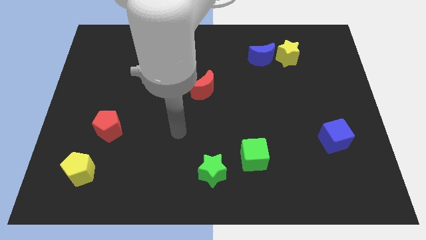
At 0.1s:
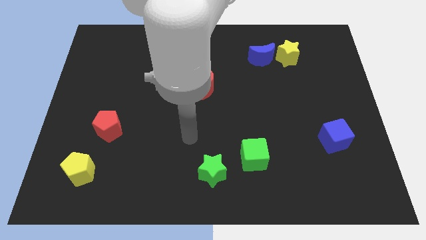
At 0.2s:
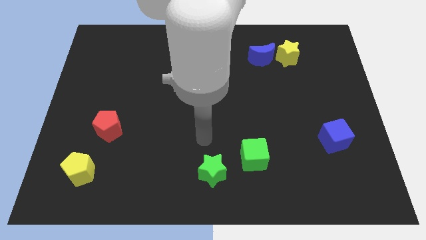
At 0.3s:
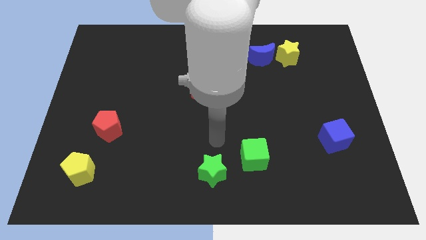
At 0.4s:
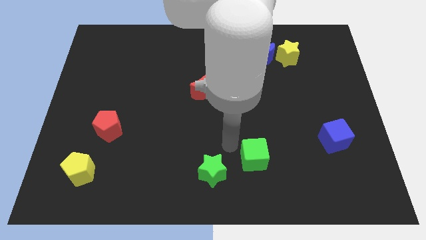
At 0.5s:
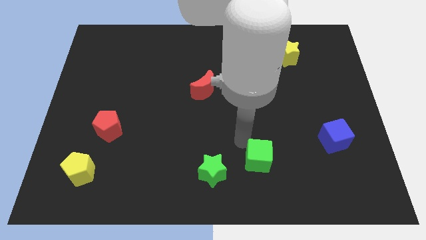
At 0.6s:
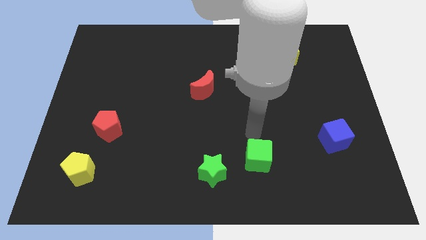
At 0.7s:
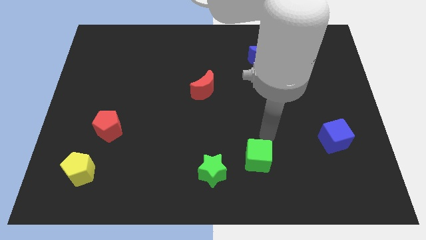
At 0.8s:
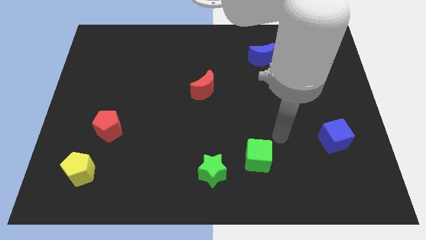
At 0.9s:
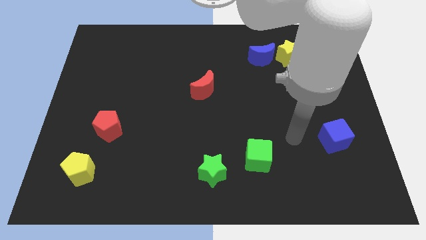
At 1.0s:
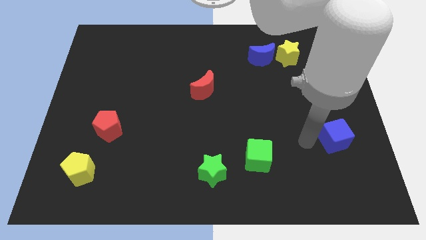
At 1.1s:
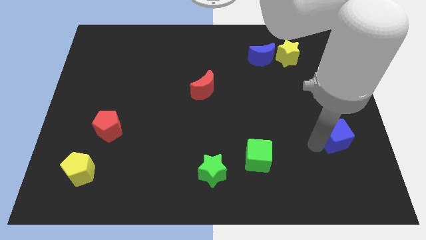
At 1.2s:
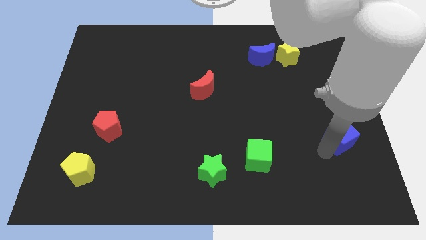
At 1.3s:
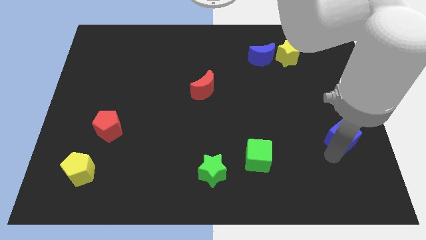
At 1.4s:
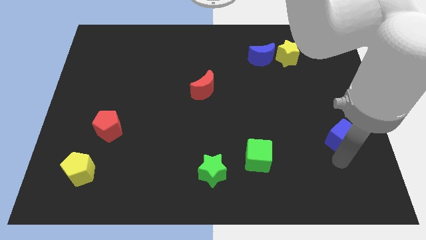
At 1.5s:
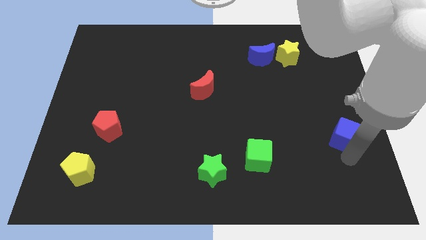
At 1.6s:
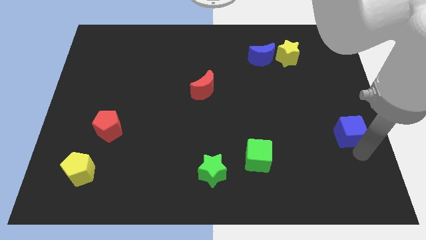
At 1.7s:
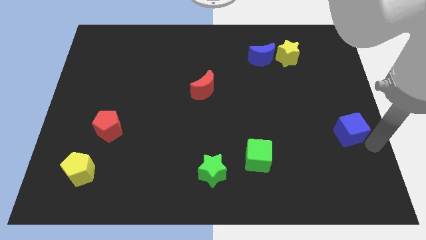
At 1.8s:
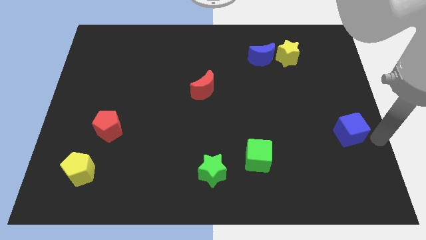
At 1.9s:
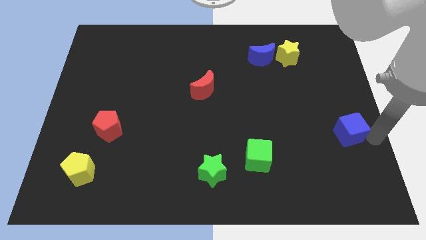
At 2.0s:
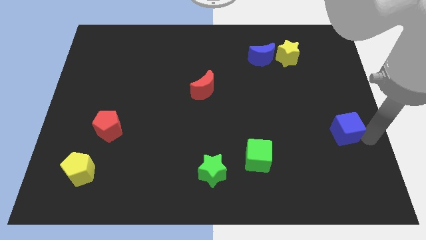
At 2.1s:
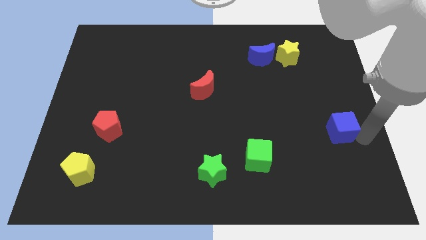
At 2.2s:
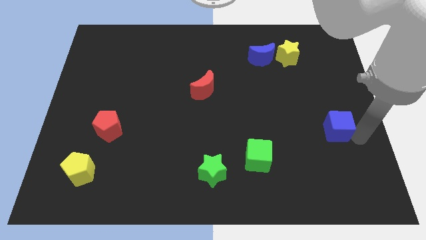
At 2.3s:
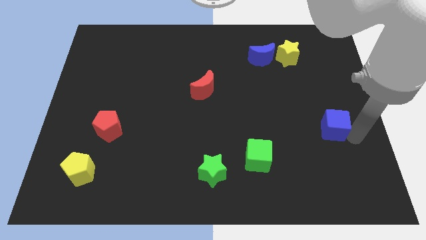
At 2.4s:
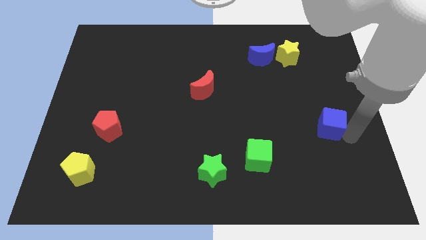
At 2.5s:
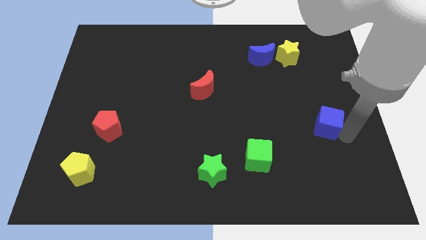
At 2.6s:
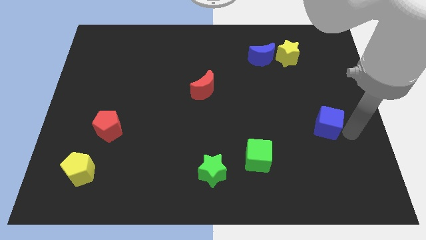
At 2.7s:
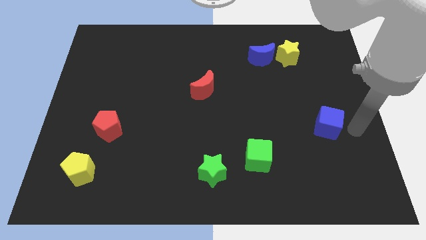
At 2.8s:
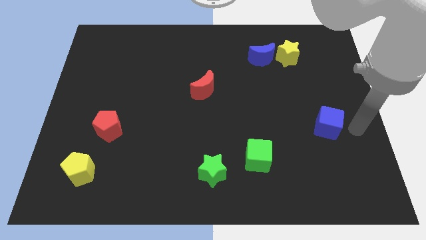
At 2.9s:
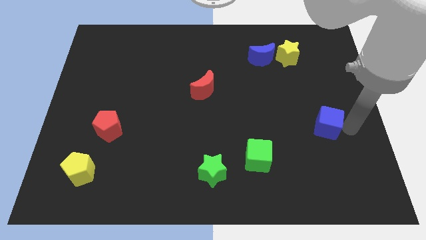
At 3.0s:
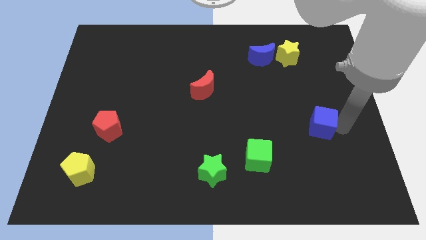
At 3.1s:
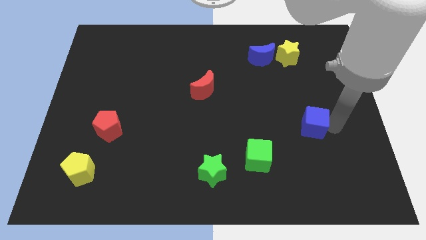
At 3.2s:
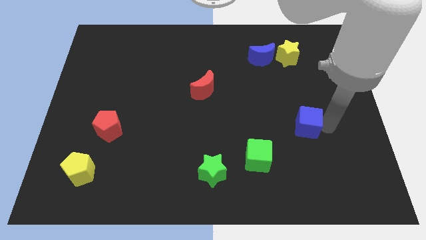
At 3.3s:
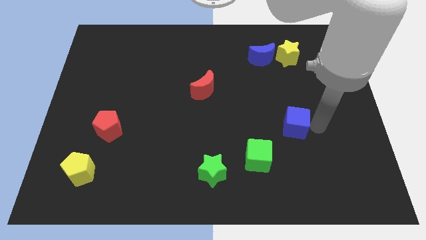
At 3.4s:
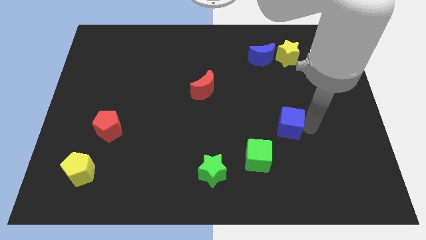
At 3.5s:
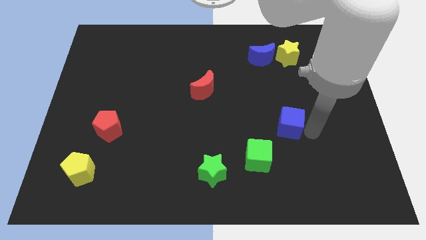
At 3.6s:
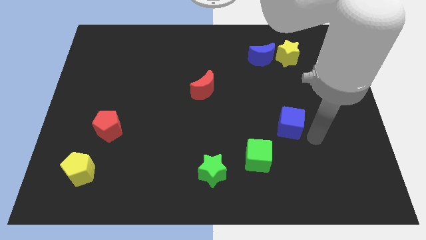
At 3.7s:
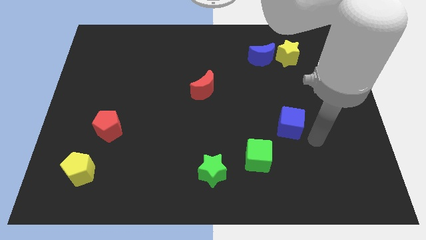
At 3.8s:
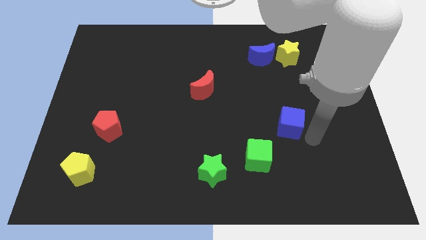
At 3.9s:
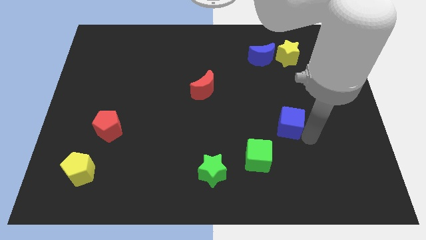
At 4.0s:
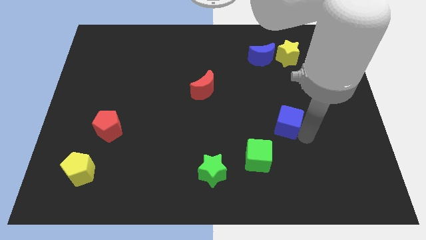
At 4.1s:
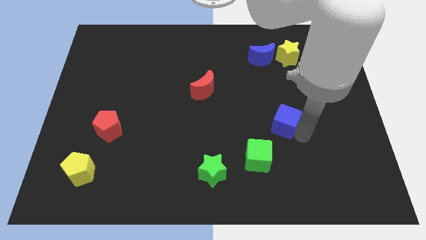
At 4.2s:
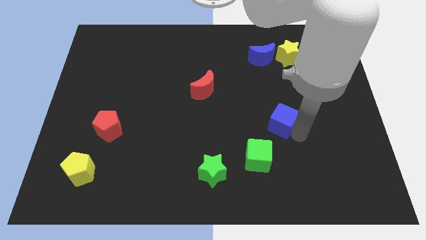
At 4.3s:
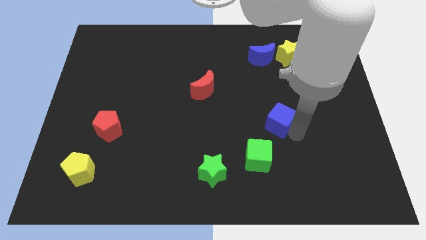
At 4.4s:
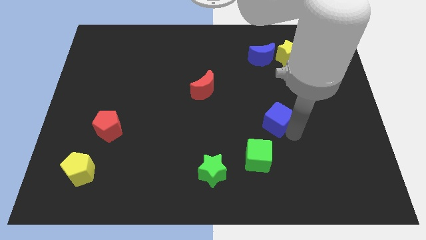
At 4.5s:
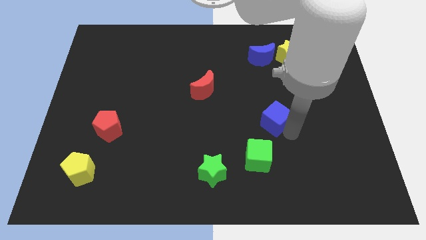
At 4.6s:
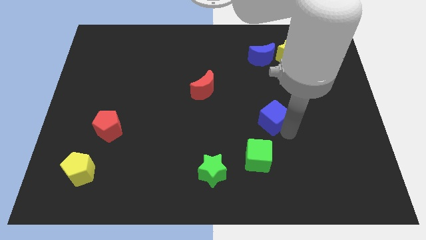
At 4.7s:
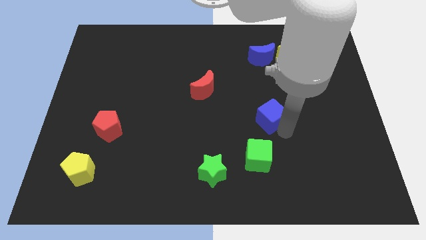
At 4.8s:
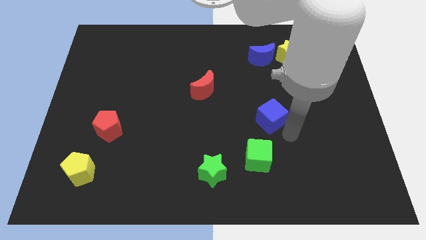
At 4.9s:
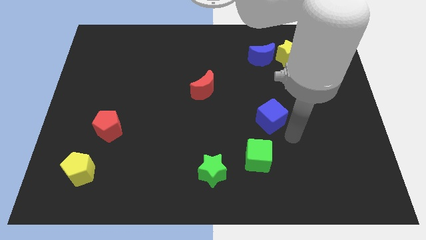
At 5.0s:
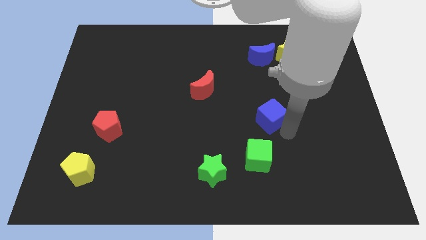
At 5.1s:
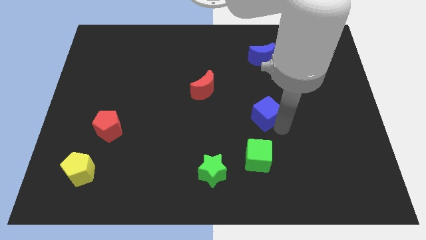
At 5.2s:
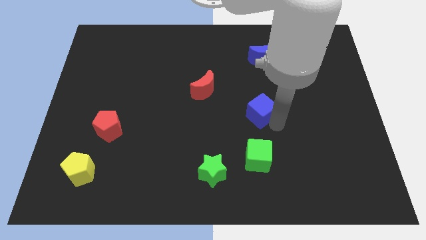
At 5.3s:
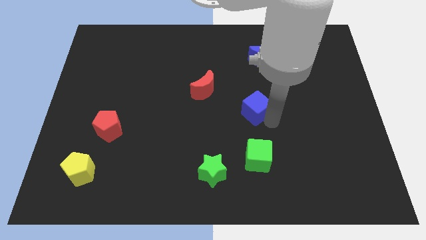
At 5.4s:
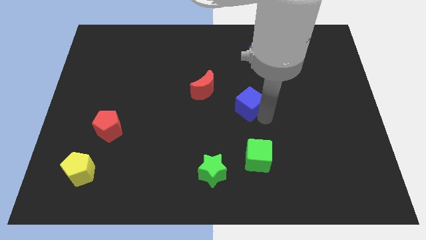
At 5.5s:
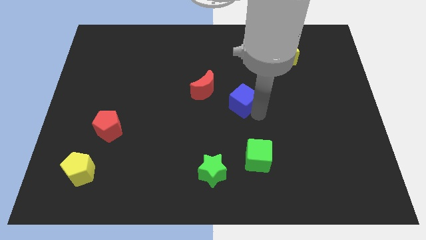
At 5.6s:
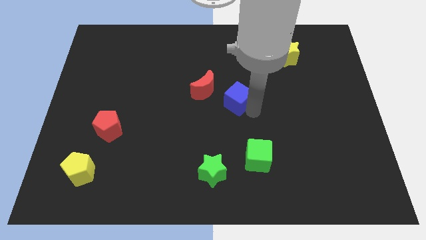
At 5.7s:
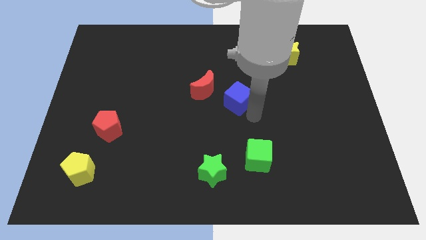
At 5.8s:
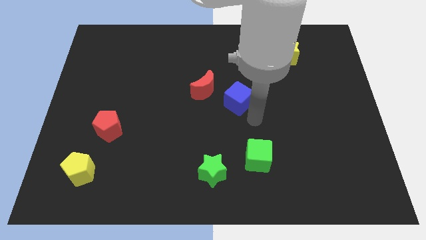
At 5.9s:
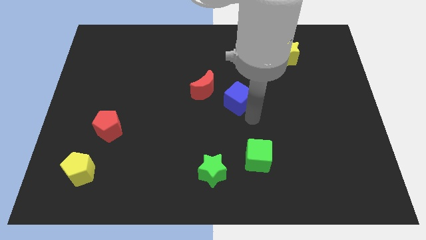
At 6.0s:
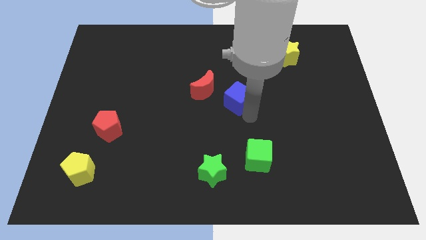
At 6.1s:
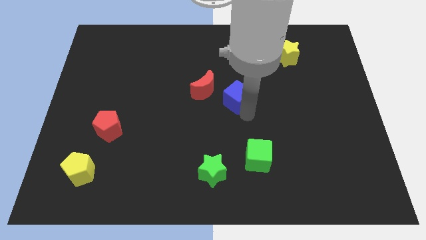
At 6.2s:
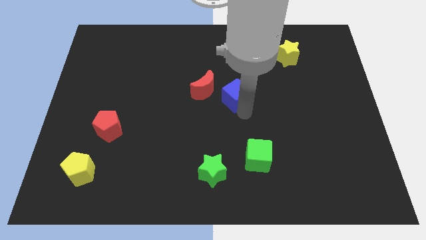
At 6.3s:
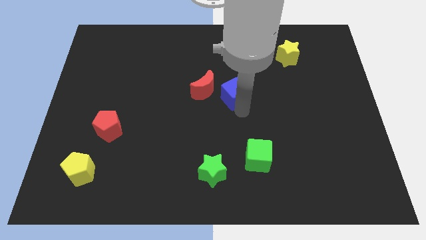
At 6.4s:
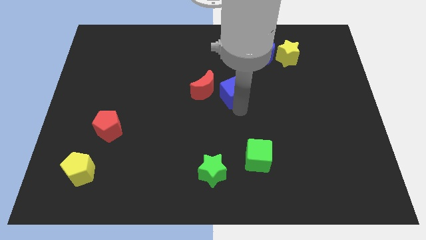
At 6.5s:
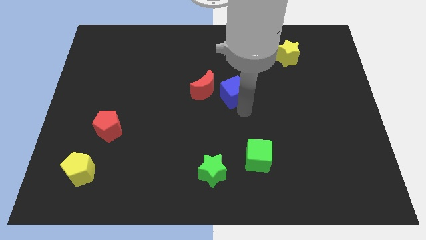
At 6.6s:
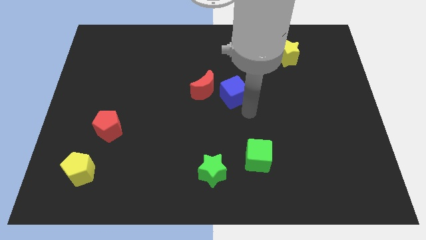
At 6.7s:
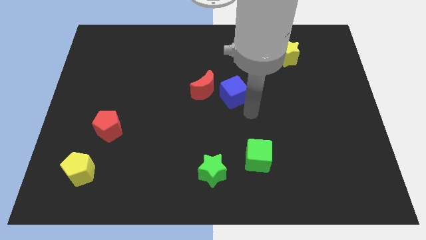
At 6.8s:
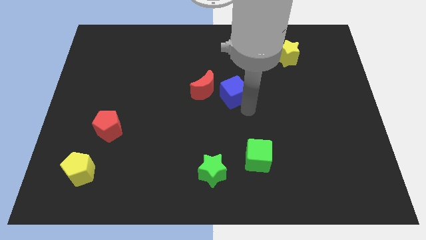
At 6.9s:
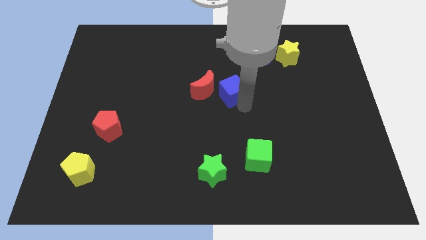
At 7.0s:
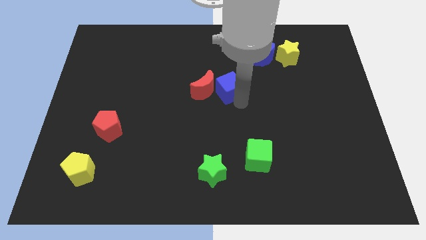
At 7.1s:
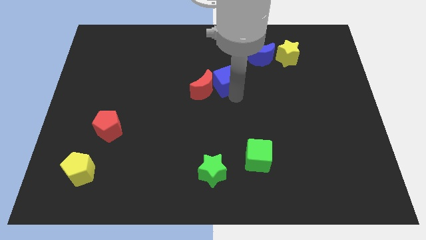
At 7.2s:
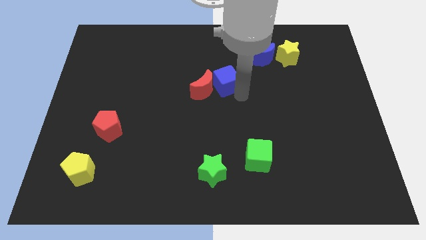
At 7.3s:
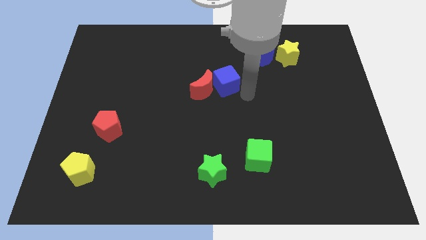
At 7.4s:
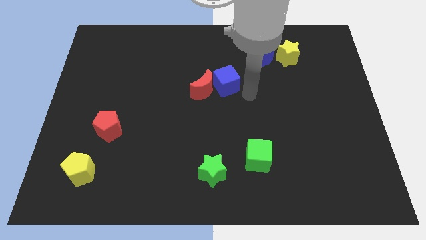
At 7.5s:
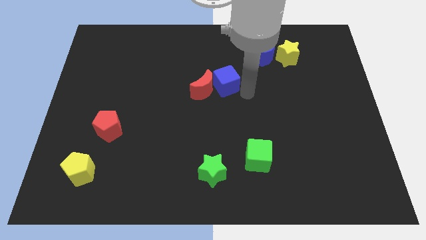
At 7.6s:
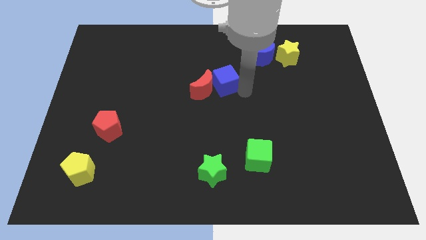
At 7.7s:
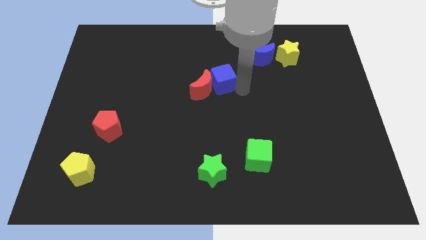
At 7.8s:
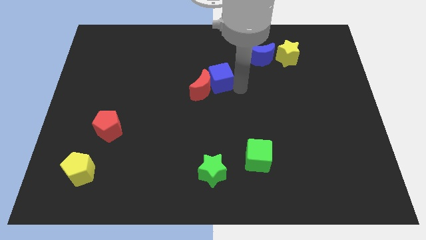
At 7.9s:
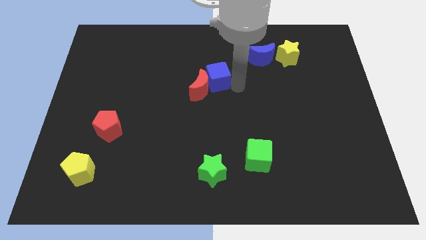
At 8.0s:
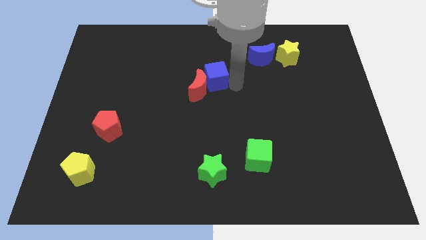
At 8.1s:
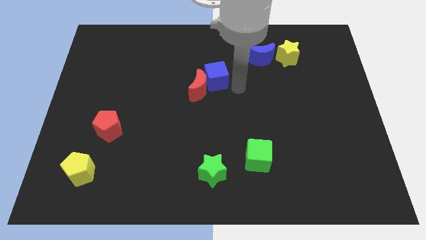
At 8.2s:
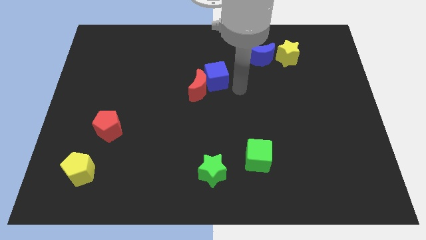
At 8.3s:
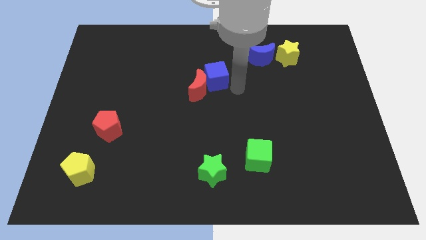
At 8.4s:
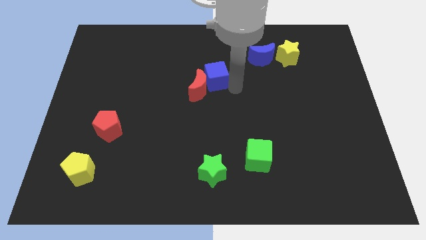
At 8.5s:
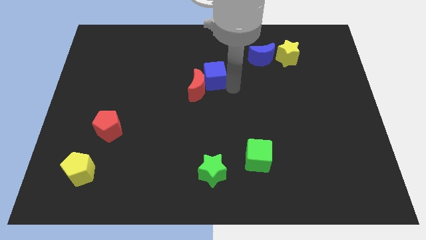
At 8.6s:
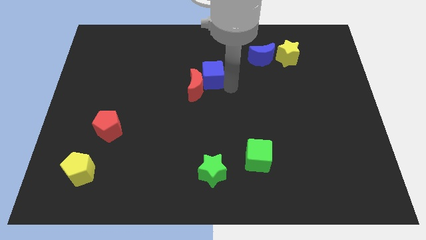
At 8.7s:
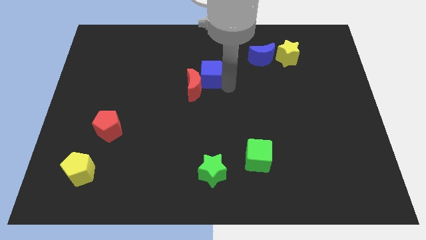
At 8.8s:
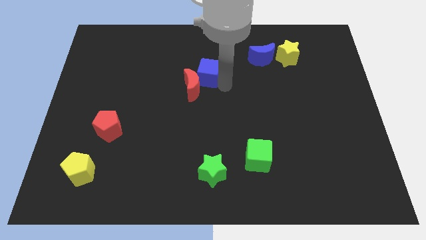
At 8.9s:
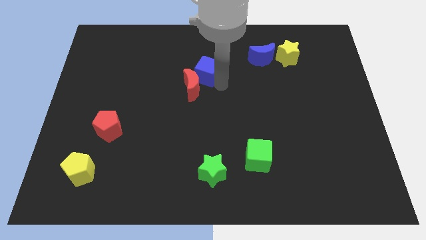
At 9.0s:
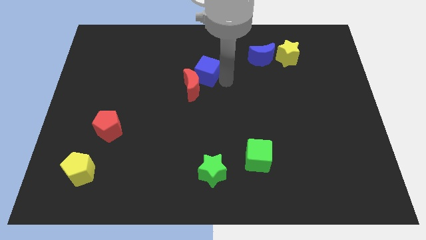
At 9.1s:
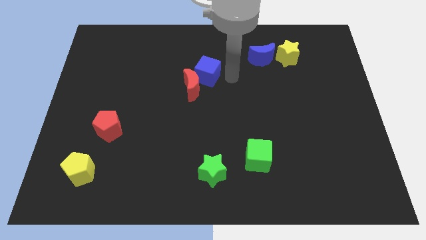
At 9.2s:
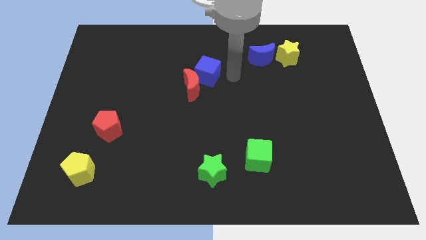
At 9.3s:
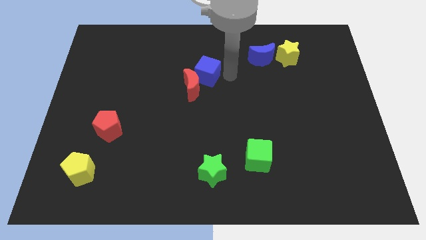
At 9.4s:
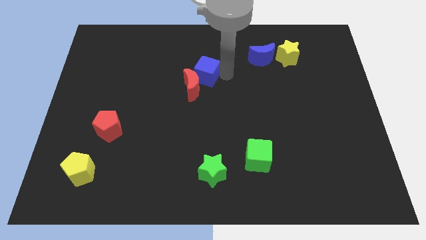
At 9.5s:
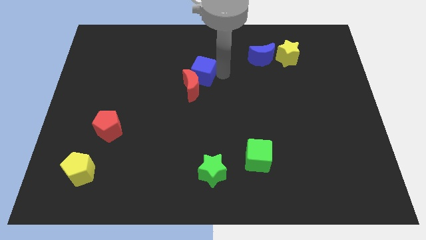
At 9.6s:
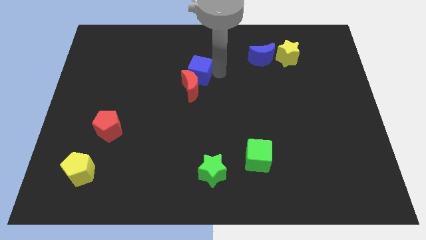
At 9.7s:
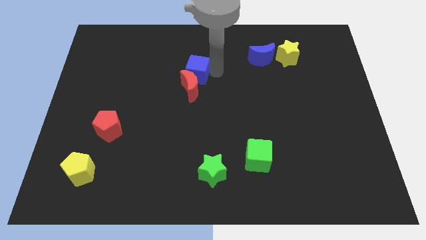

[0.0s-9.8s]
slide the blue cube diagonally up and to the left of the red moon
